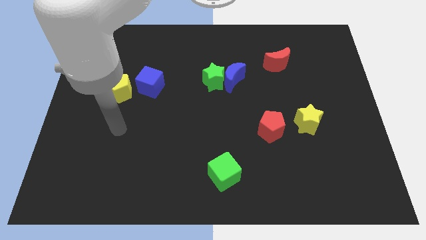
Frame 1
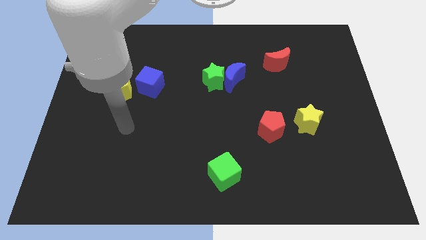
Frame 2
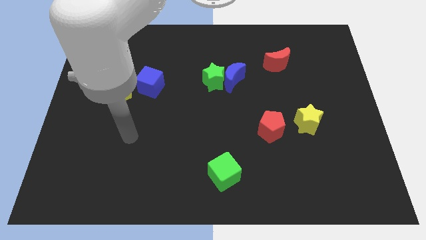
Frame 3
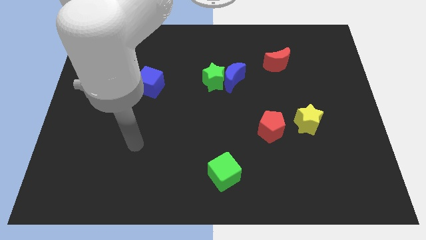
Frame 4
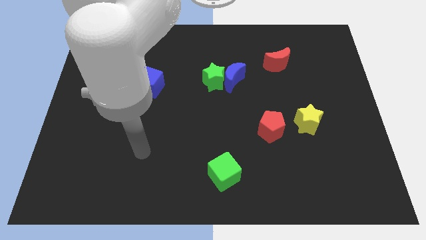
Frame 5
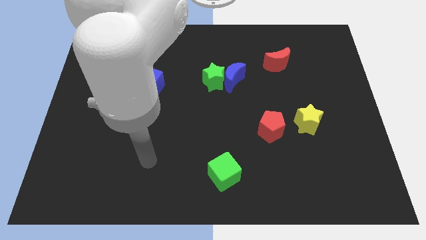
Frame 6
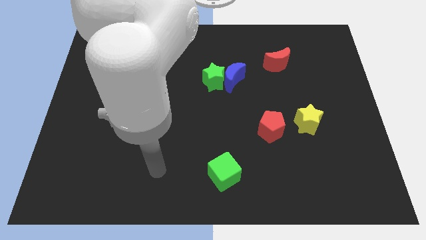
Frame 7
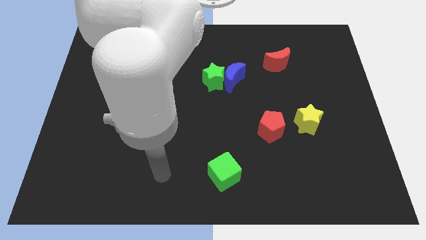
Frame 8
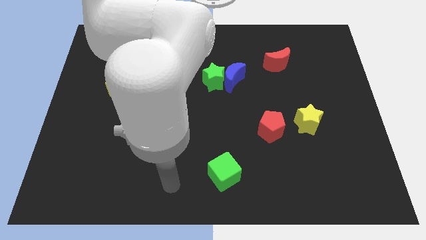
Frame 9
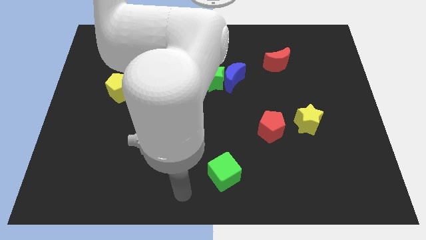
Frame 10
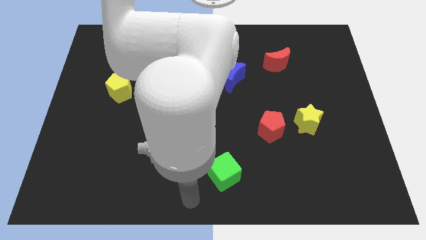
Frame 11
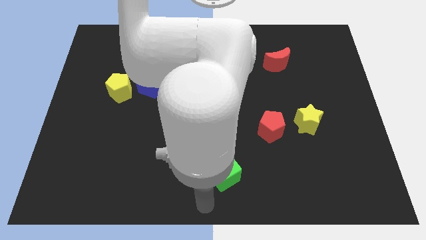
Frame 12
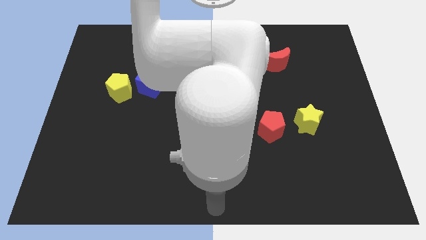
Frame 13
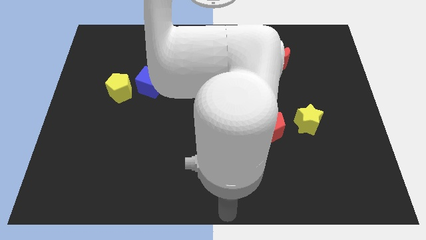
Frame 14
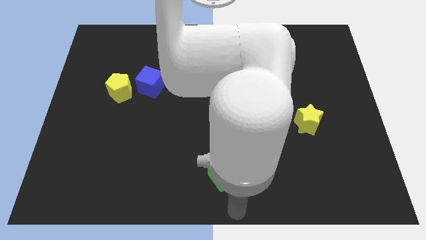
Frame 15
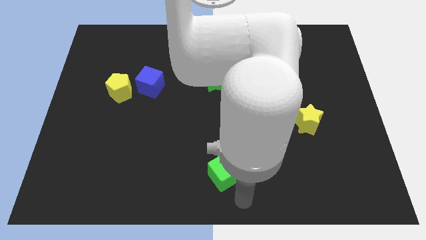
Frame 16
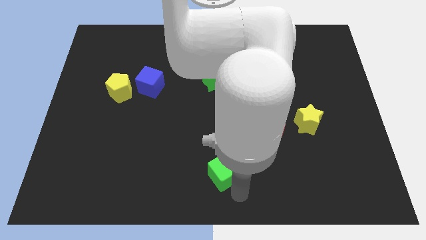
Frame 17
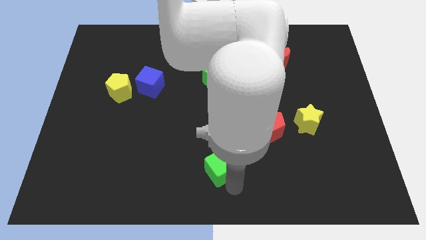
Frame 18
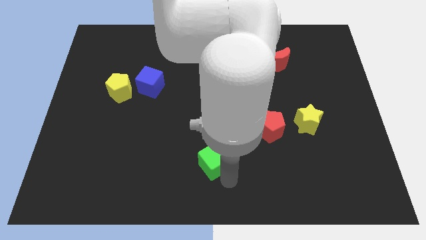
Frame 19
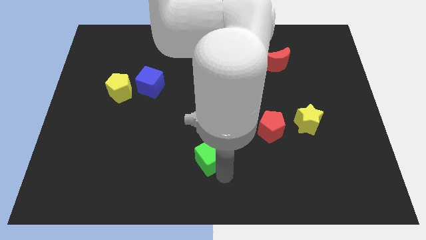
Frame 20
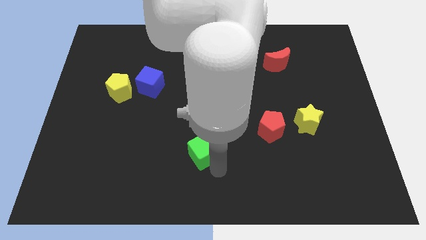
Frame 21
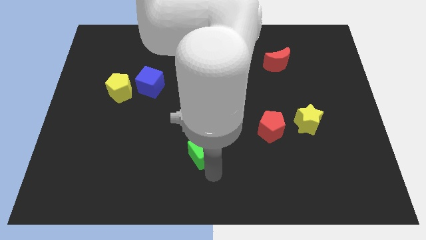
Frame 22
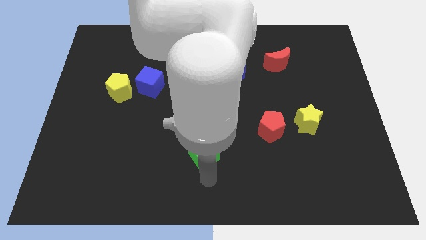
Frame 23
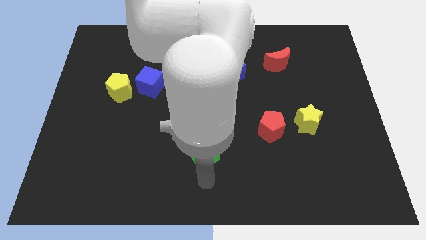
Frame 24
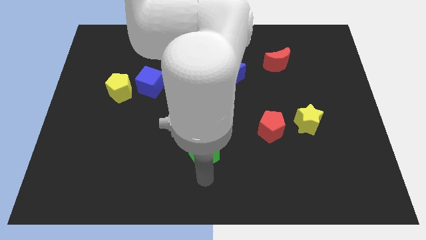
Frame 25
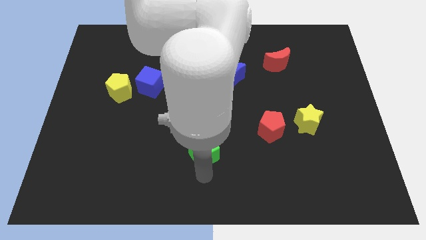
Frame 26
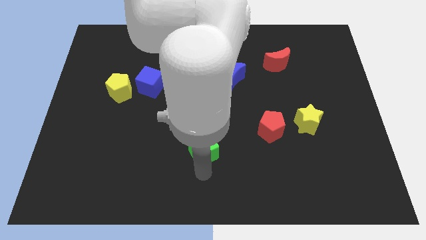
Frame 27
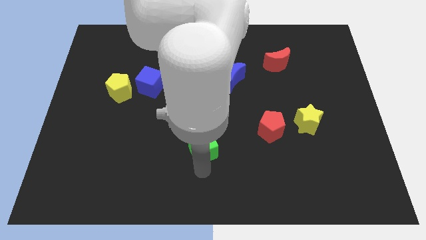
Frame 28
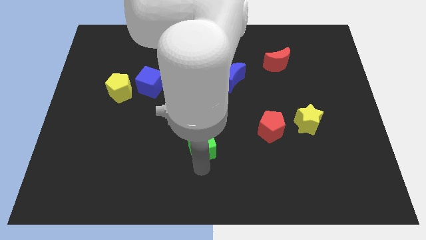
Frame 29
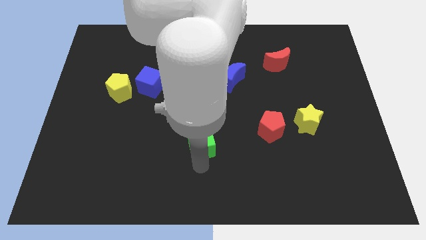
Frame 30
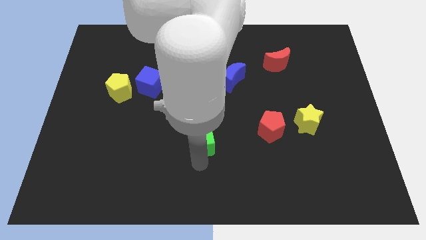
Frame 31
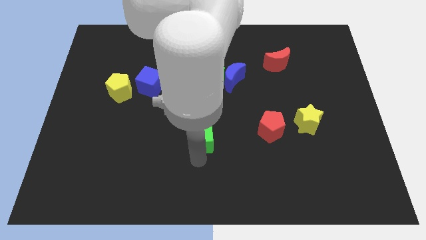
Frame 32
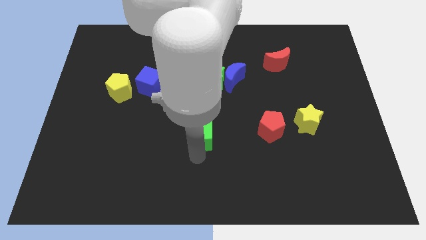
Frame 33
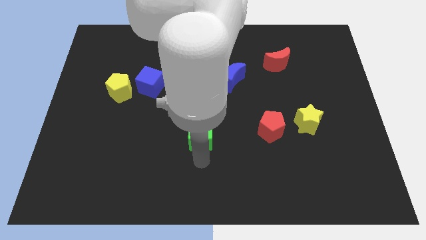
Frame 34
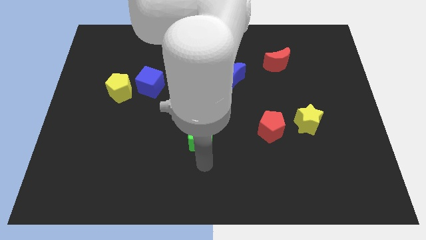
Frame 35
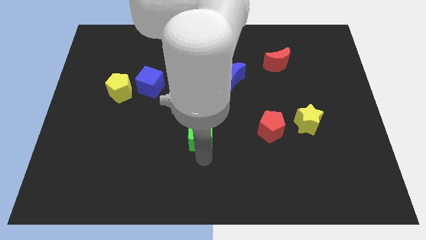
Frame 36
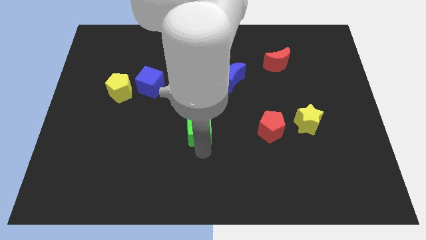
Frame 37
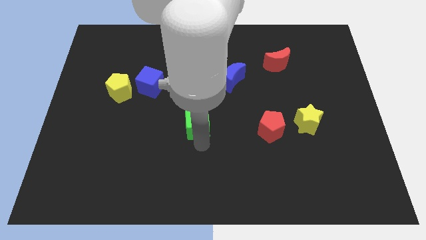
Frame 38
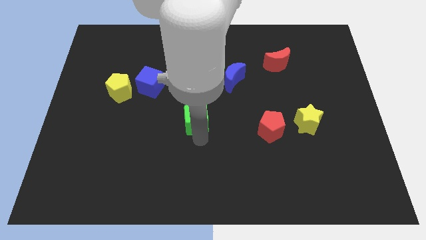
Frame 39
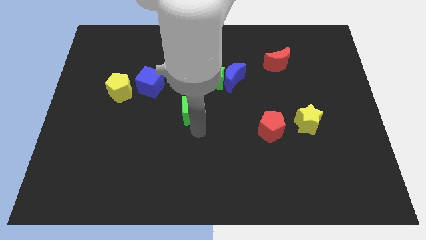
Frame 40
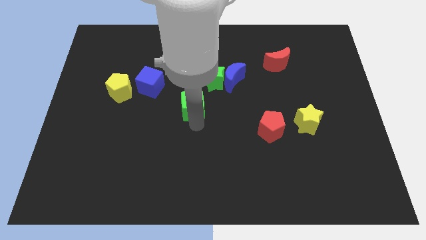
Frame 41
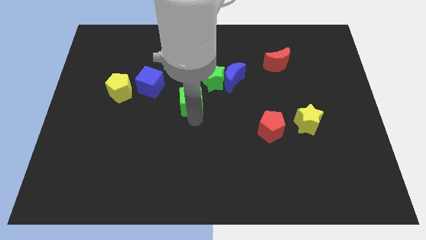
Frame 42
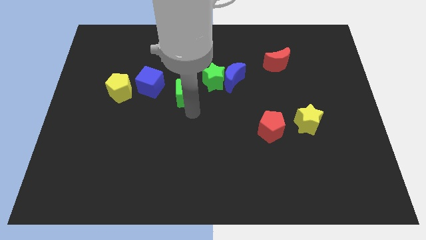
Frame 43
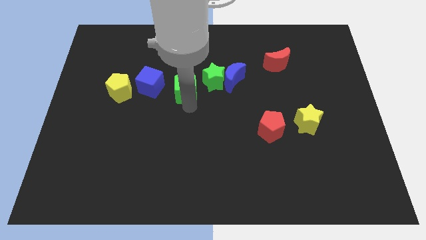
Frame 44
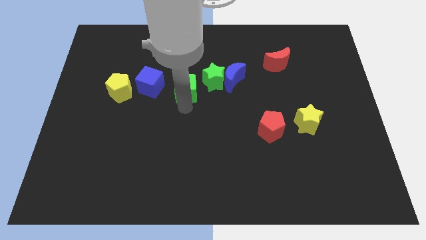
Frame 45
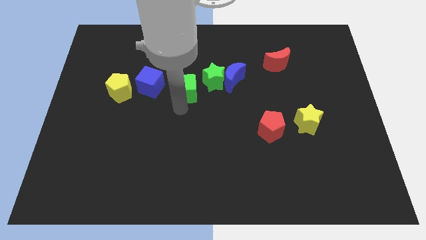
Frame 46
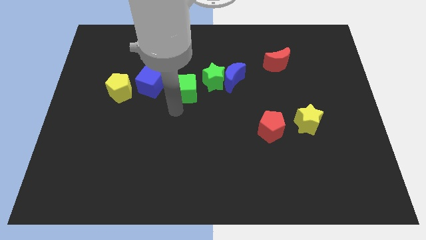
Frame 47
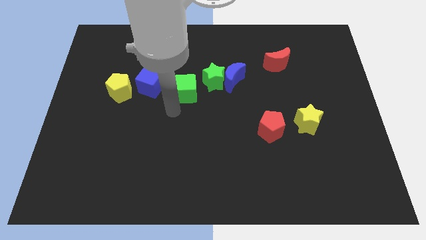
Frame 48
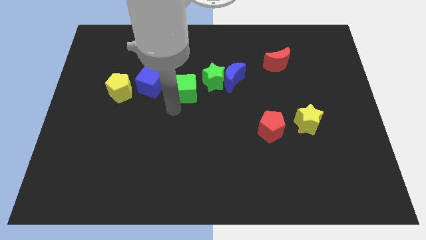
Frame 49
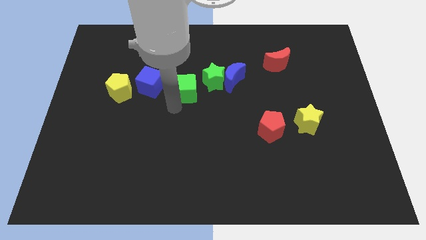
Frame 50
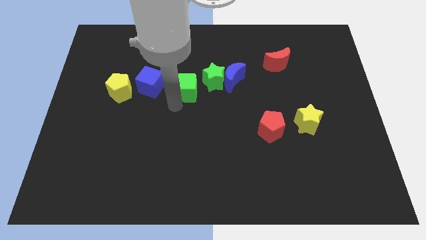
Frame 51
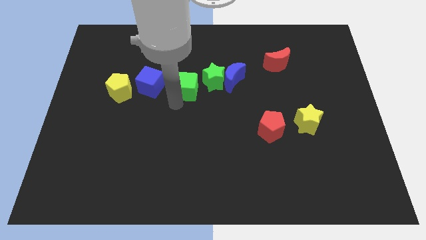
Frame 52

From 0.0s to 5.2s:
move the green cube up

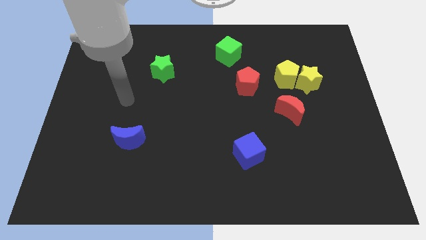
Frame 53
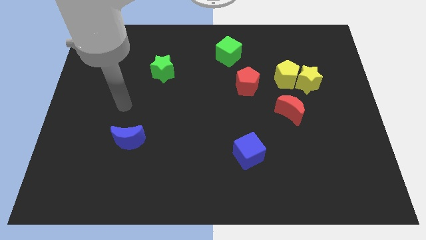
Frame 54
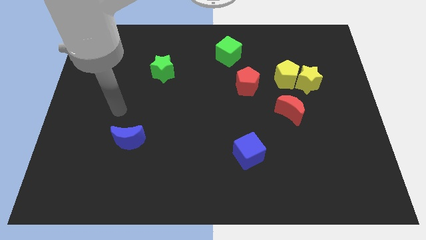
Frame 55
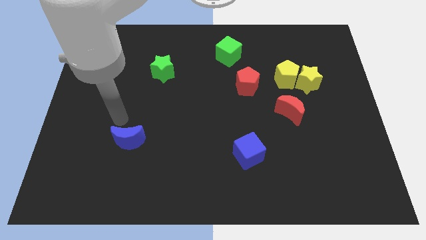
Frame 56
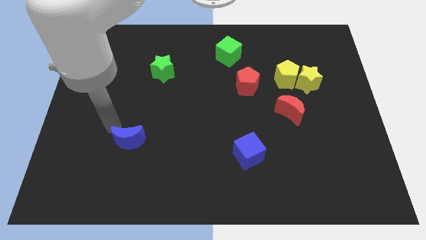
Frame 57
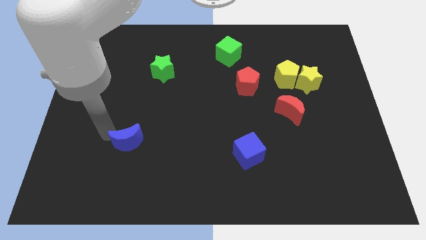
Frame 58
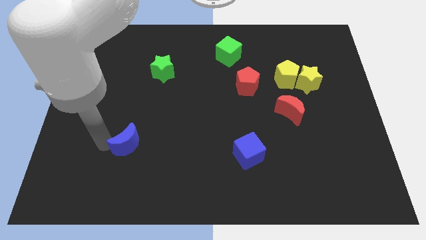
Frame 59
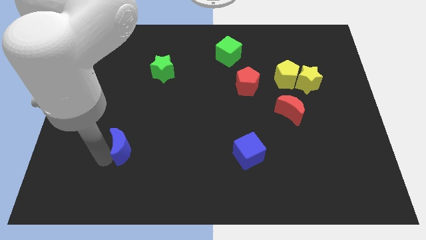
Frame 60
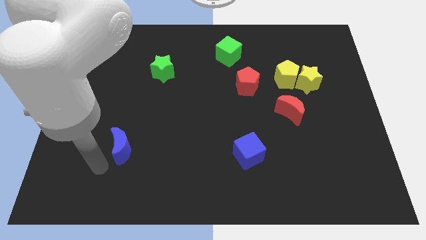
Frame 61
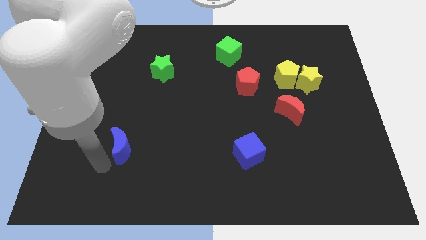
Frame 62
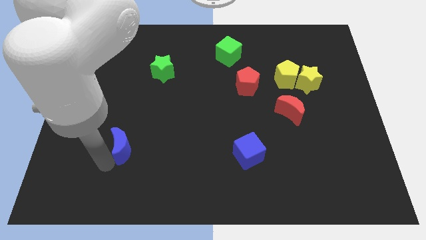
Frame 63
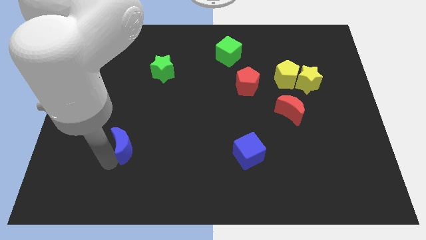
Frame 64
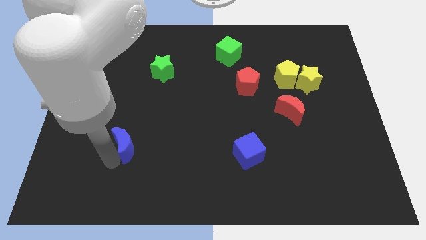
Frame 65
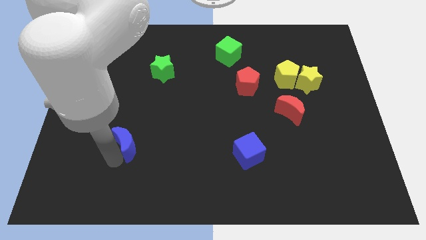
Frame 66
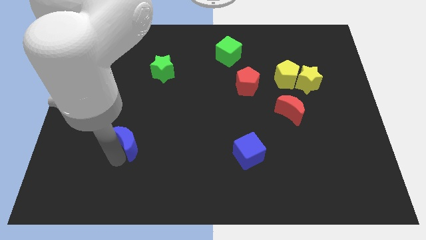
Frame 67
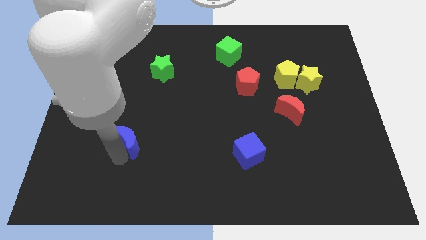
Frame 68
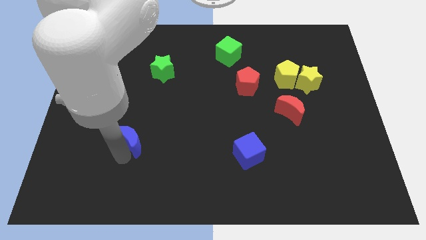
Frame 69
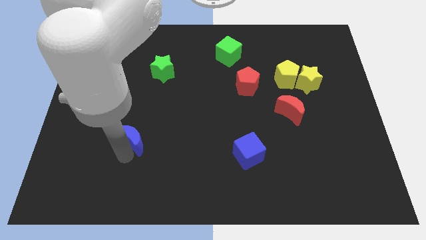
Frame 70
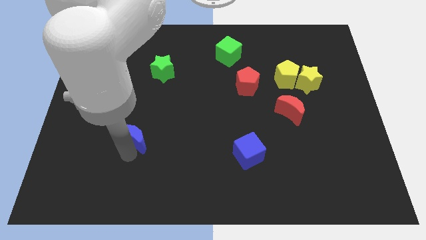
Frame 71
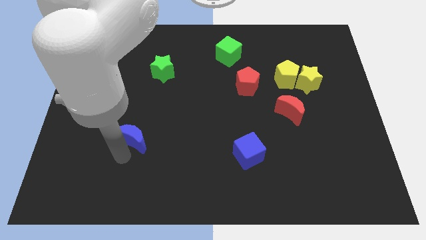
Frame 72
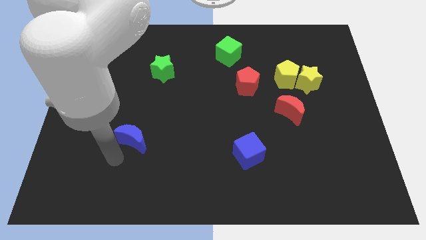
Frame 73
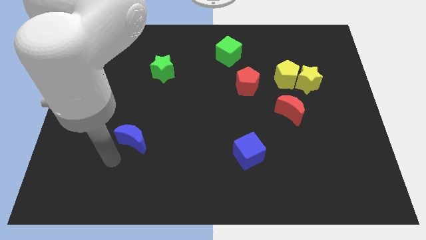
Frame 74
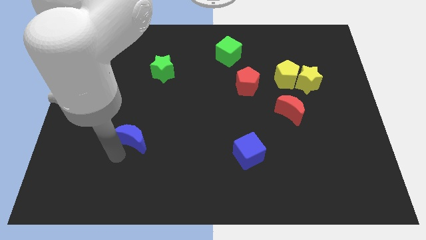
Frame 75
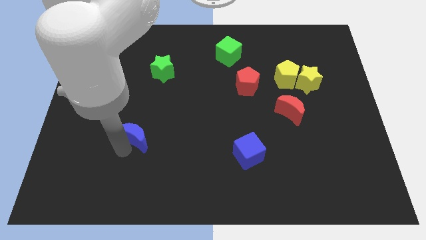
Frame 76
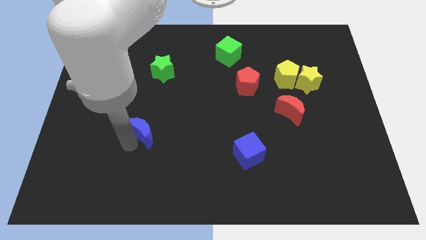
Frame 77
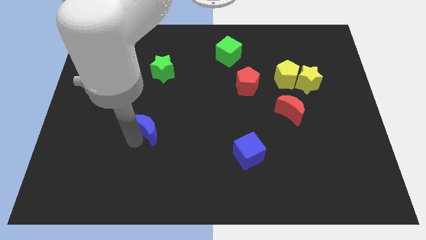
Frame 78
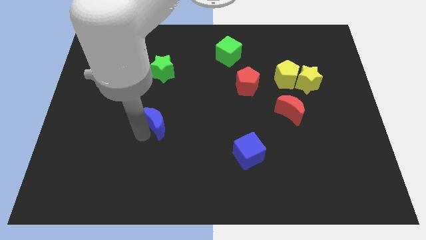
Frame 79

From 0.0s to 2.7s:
slide the blue moon a little upwards and then right
